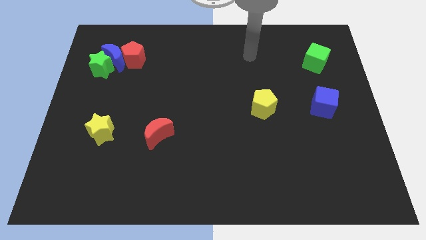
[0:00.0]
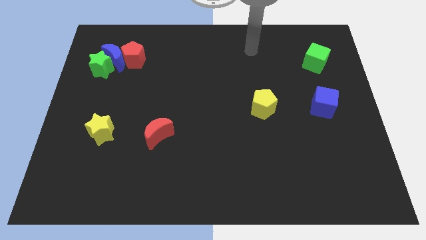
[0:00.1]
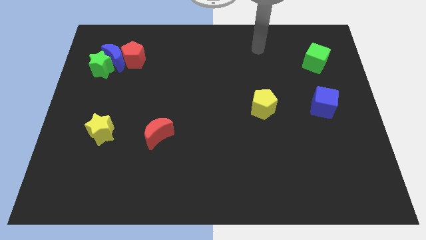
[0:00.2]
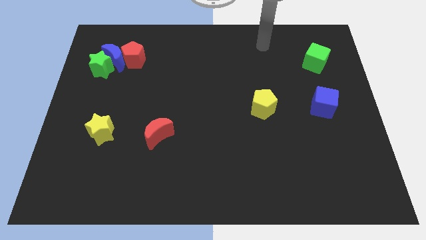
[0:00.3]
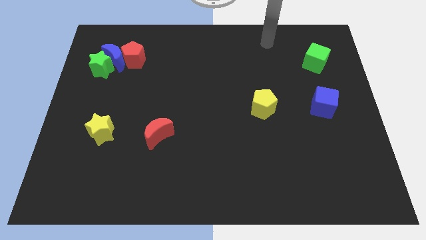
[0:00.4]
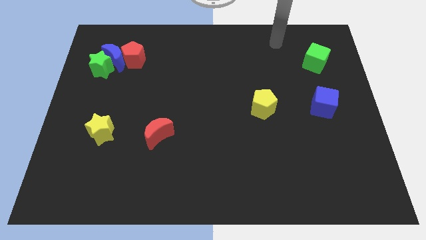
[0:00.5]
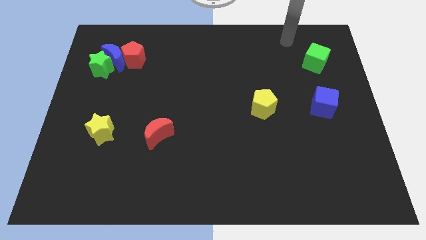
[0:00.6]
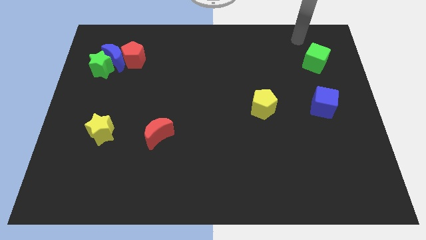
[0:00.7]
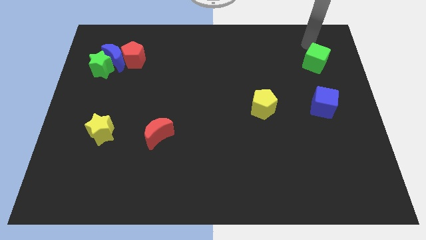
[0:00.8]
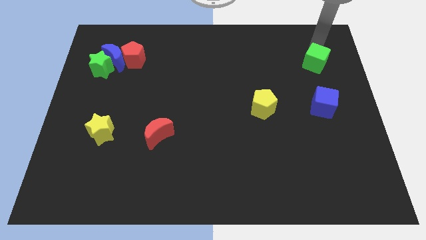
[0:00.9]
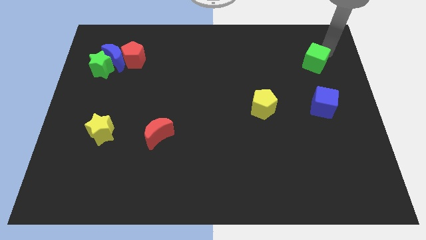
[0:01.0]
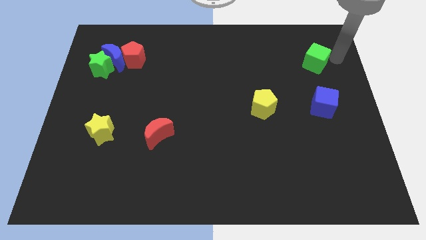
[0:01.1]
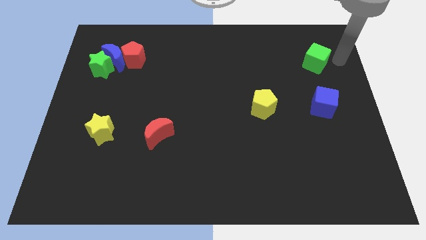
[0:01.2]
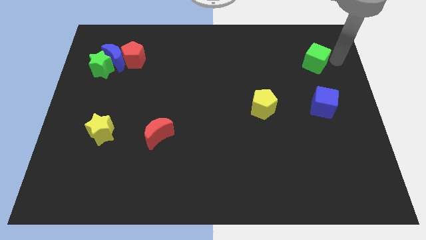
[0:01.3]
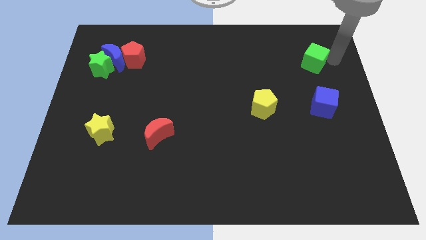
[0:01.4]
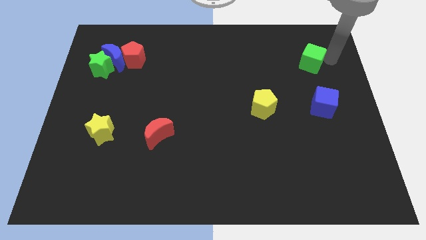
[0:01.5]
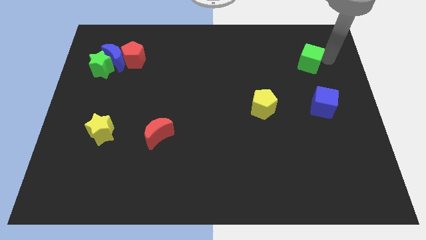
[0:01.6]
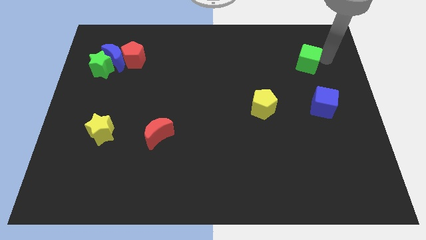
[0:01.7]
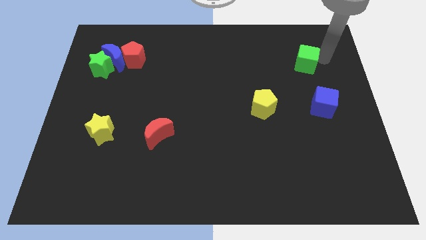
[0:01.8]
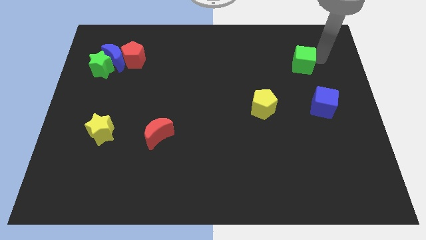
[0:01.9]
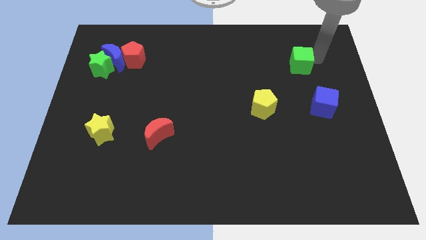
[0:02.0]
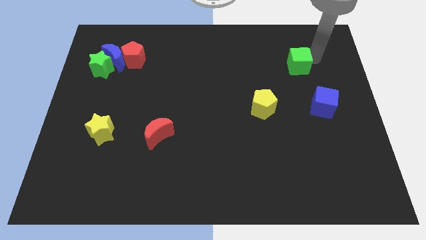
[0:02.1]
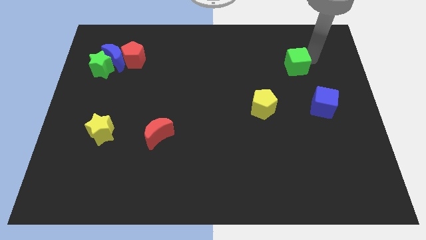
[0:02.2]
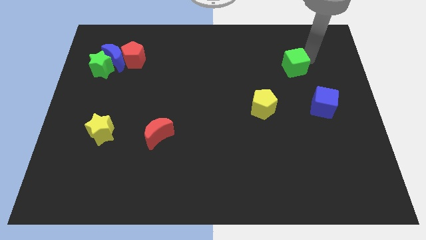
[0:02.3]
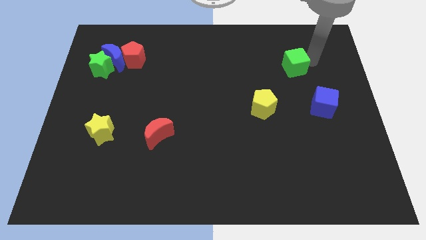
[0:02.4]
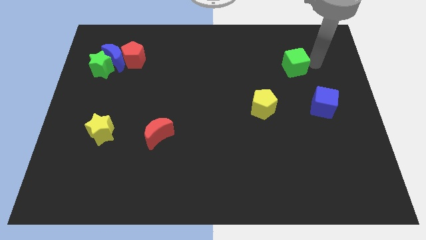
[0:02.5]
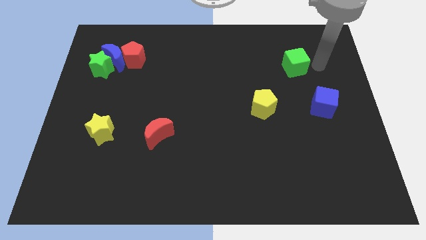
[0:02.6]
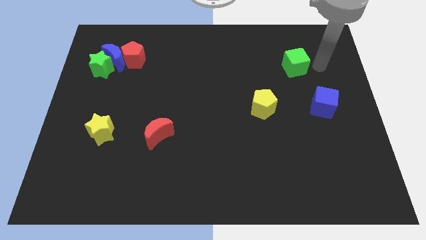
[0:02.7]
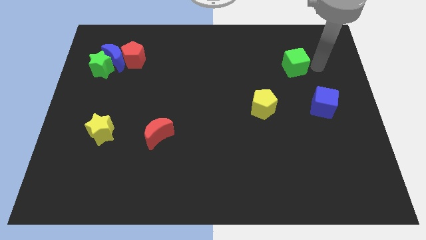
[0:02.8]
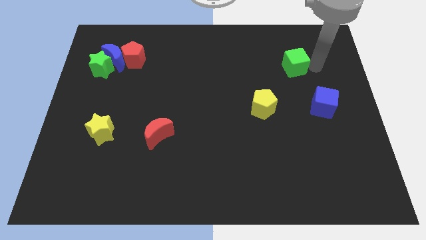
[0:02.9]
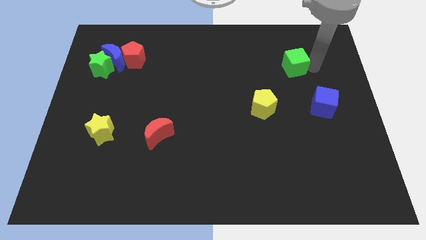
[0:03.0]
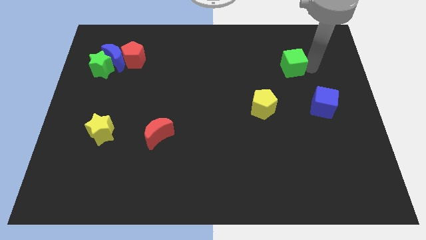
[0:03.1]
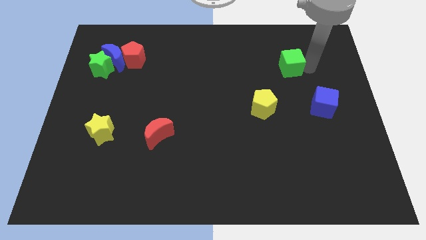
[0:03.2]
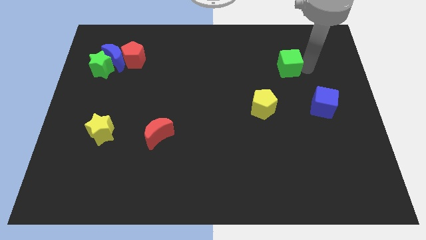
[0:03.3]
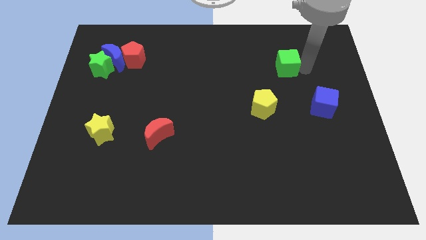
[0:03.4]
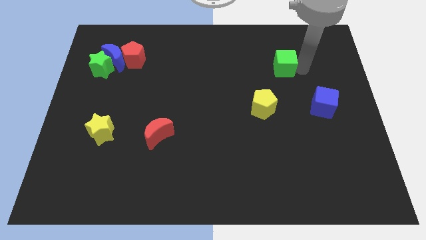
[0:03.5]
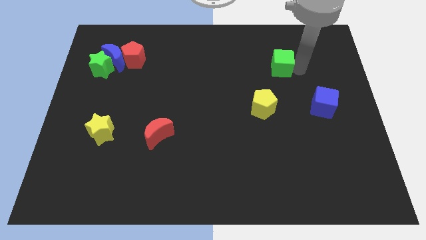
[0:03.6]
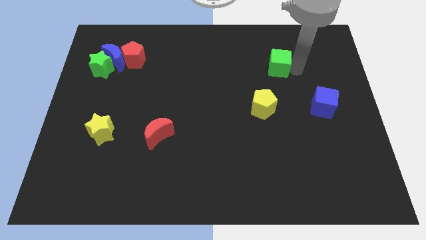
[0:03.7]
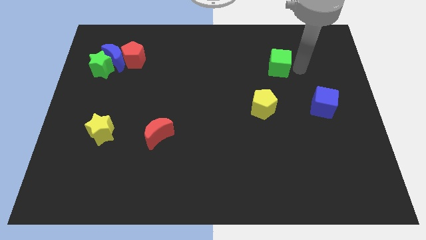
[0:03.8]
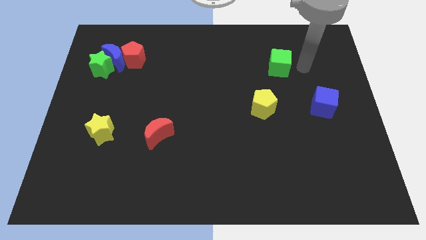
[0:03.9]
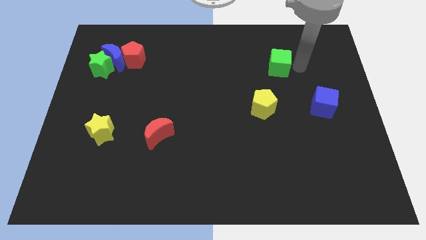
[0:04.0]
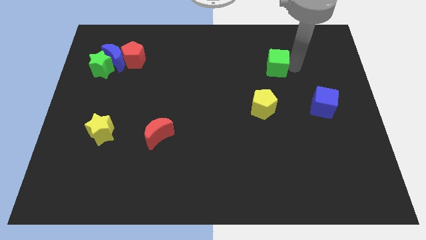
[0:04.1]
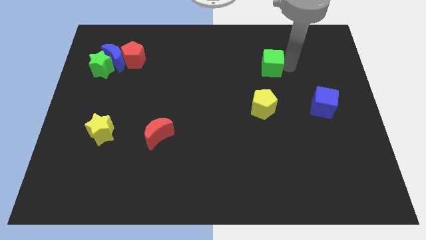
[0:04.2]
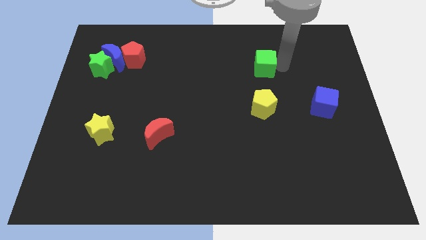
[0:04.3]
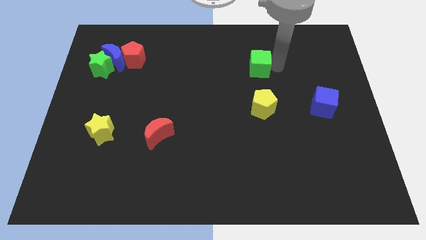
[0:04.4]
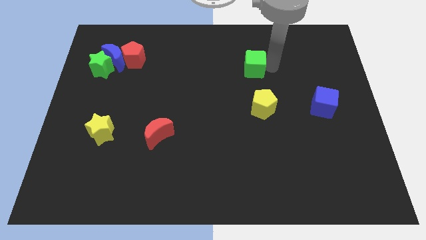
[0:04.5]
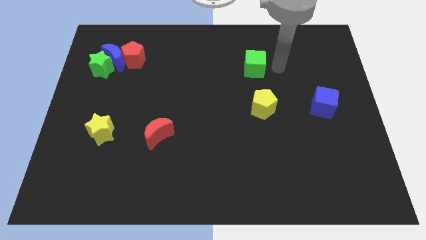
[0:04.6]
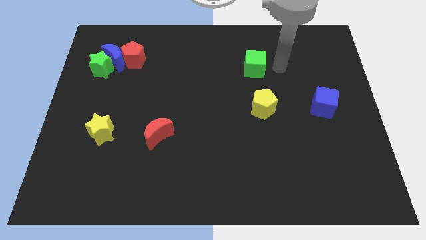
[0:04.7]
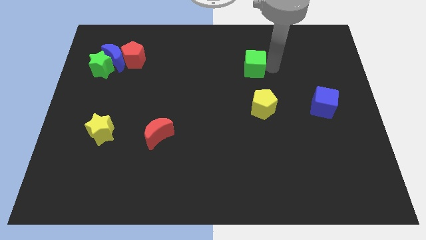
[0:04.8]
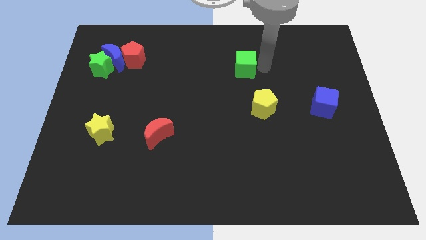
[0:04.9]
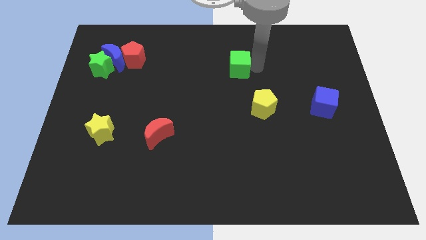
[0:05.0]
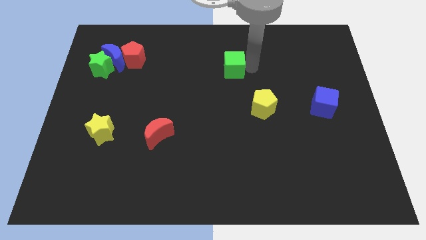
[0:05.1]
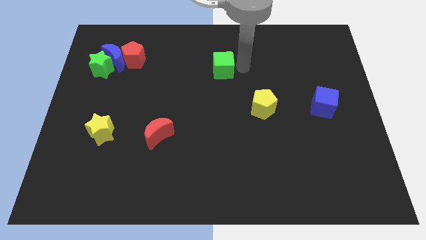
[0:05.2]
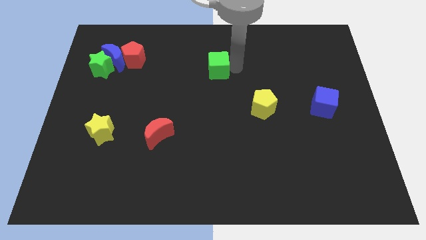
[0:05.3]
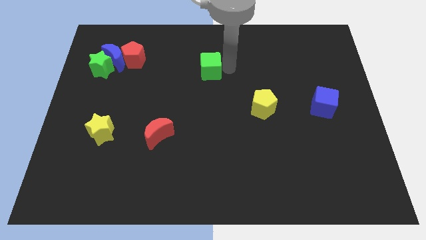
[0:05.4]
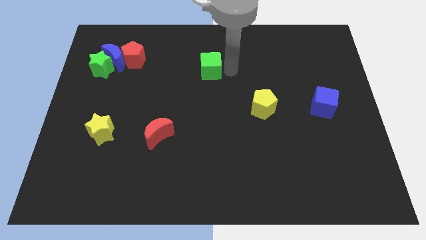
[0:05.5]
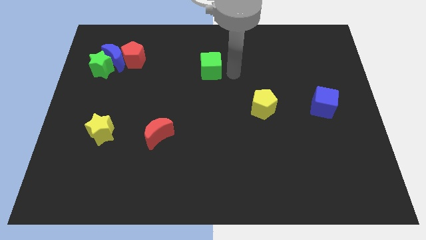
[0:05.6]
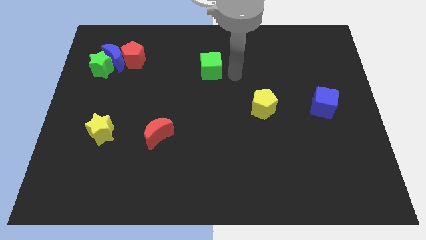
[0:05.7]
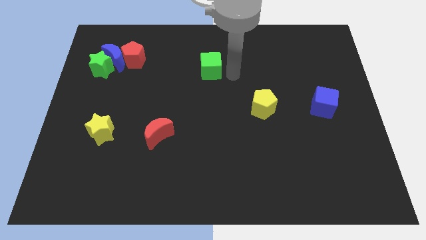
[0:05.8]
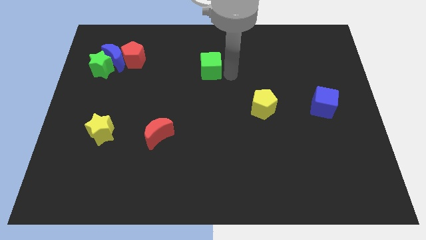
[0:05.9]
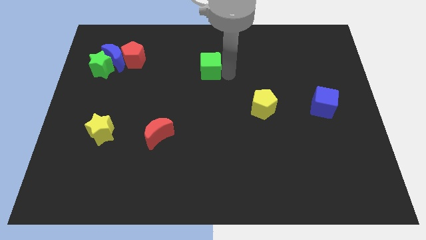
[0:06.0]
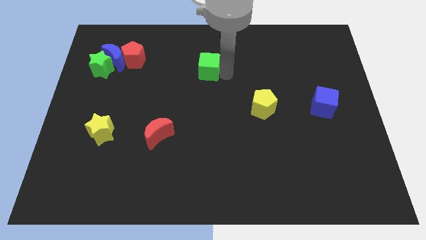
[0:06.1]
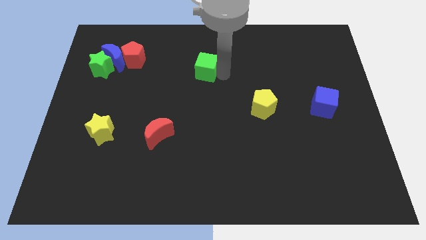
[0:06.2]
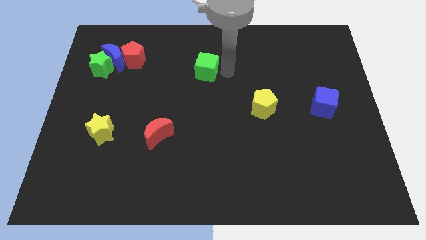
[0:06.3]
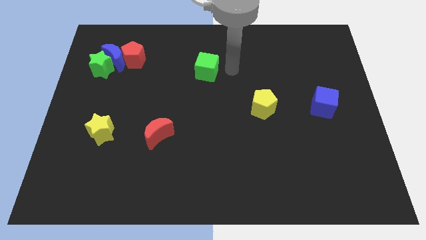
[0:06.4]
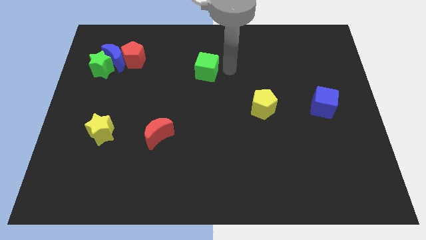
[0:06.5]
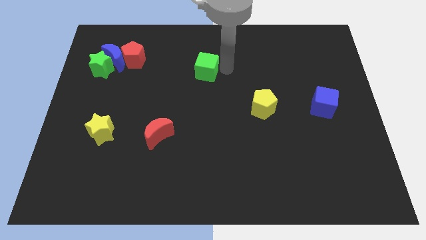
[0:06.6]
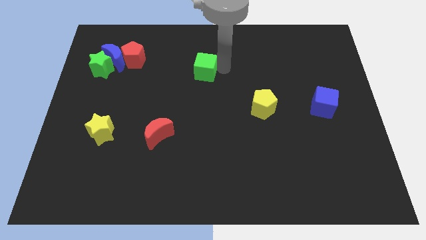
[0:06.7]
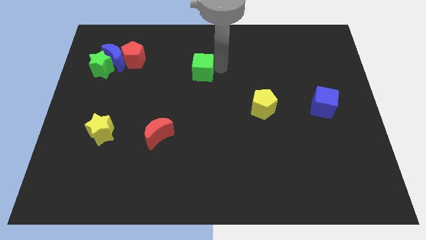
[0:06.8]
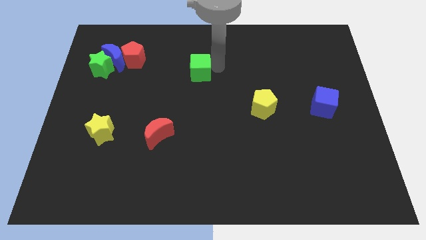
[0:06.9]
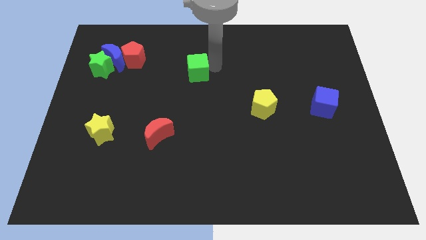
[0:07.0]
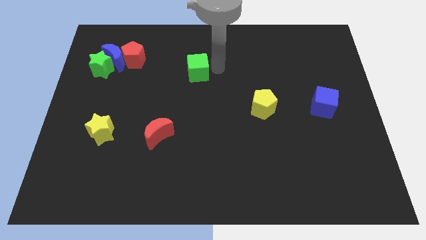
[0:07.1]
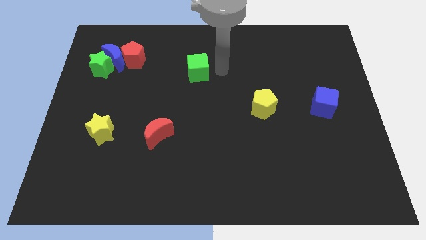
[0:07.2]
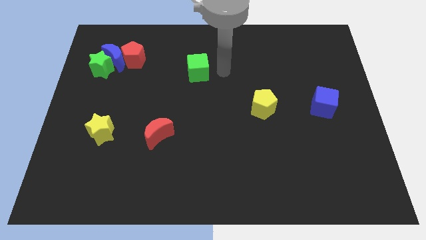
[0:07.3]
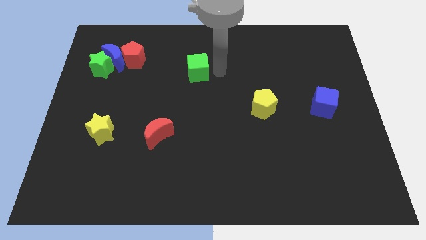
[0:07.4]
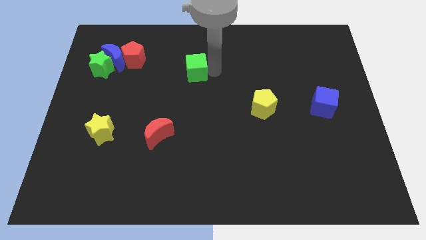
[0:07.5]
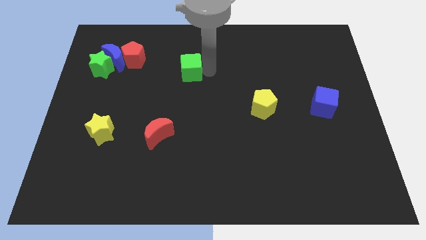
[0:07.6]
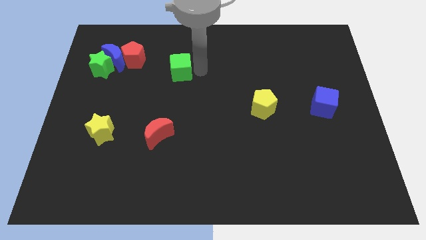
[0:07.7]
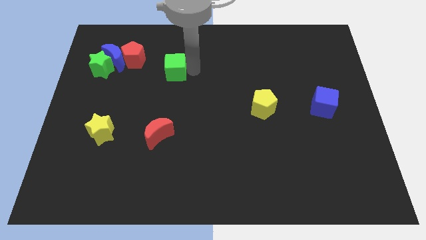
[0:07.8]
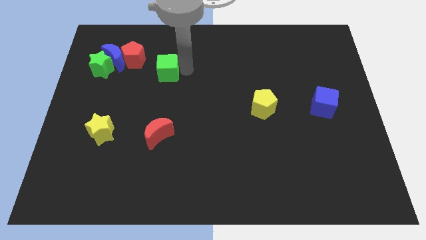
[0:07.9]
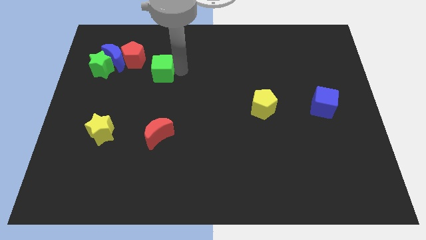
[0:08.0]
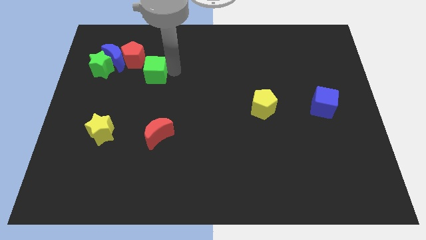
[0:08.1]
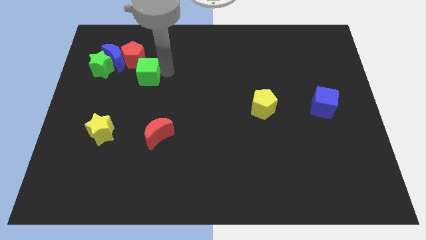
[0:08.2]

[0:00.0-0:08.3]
put the green cube to the bottom right of the blue moon
